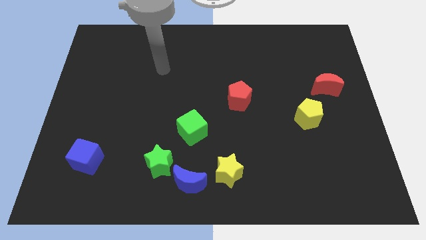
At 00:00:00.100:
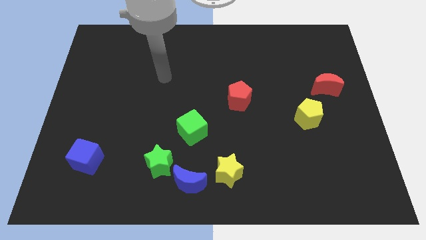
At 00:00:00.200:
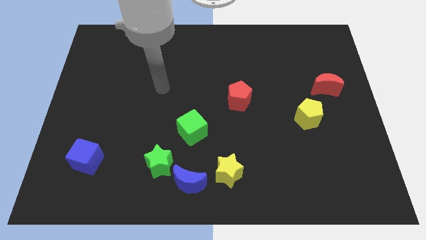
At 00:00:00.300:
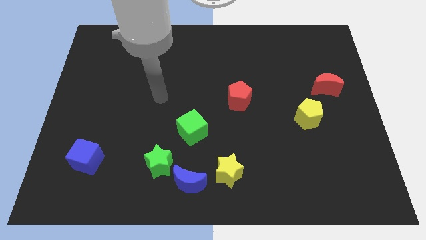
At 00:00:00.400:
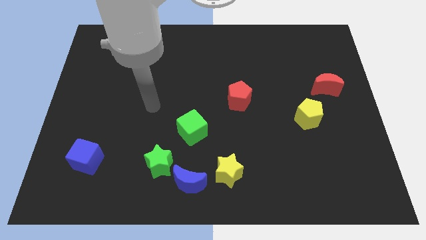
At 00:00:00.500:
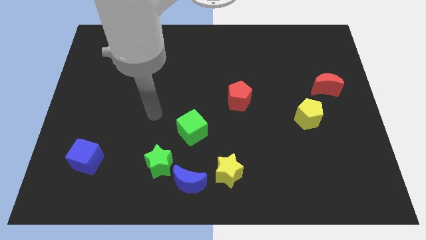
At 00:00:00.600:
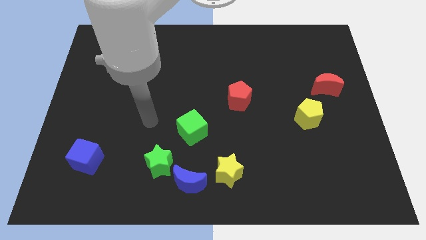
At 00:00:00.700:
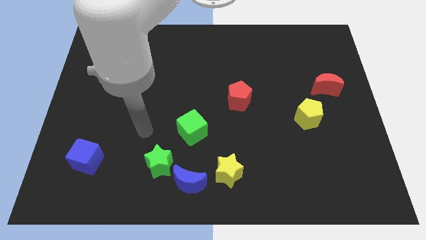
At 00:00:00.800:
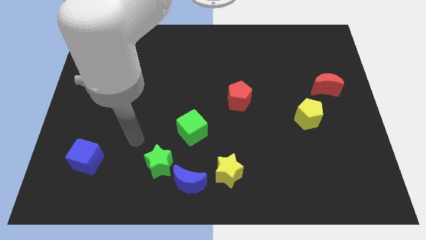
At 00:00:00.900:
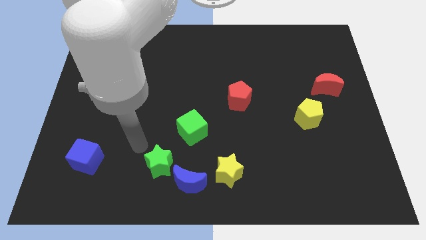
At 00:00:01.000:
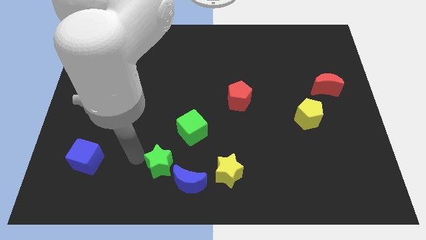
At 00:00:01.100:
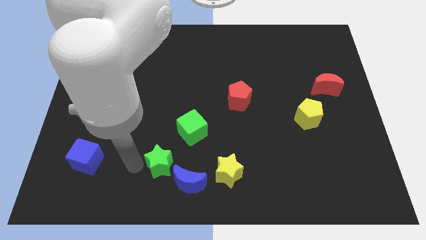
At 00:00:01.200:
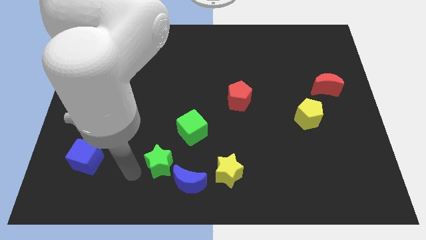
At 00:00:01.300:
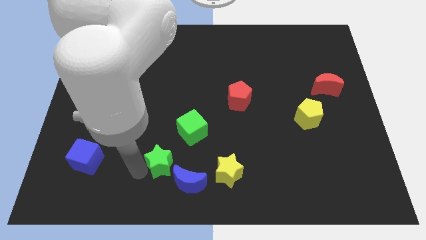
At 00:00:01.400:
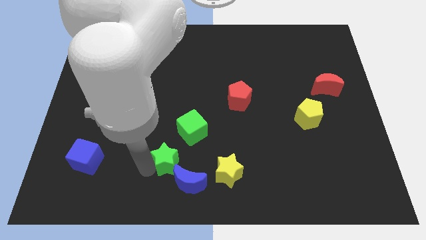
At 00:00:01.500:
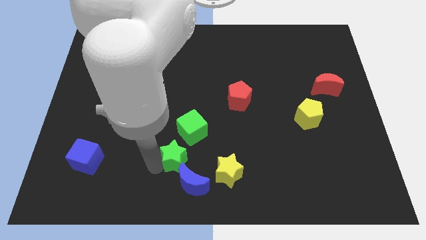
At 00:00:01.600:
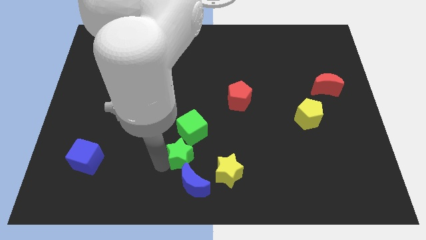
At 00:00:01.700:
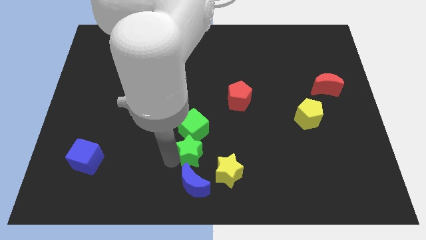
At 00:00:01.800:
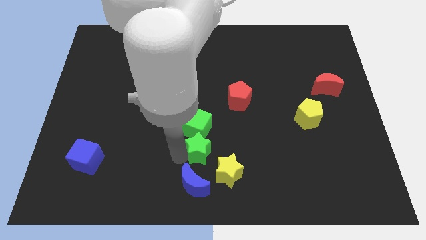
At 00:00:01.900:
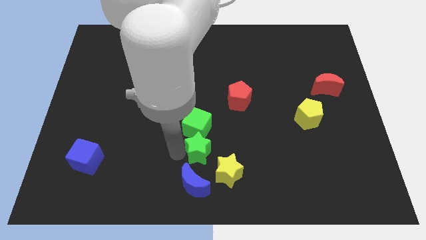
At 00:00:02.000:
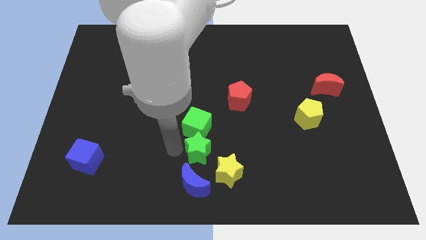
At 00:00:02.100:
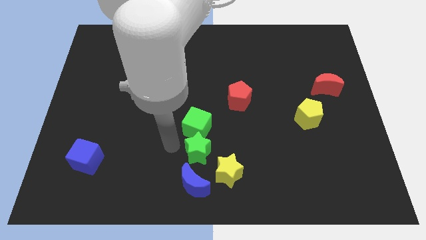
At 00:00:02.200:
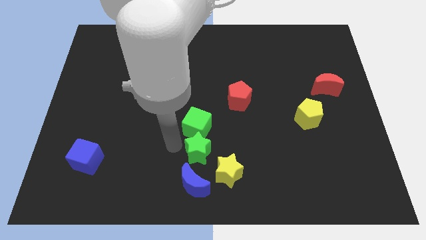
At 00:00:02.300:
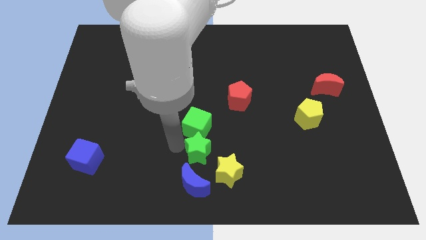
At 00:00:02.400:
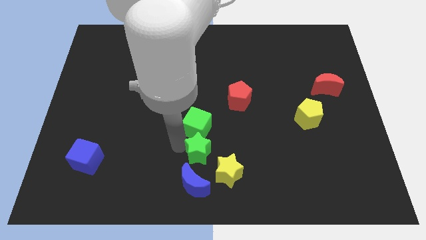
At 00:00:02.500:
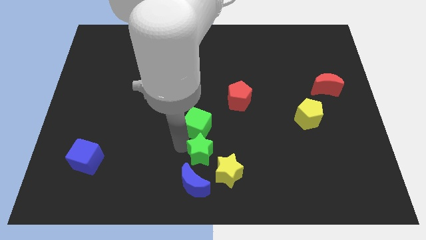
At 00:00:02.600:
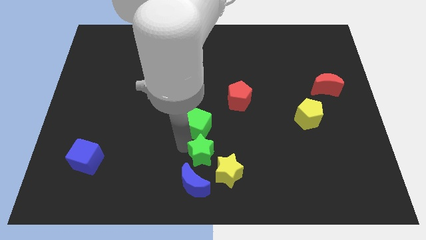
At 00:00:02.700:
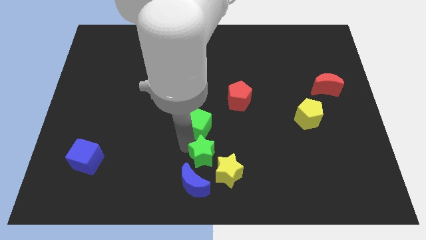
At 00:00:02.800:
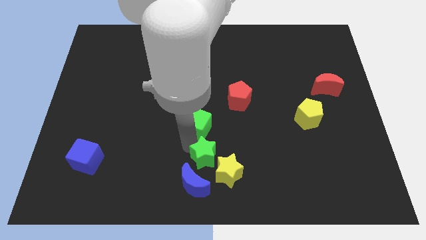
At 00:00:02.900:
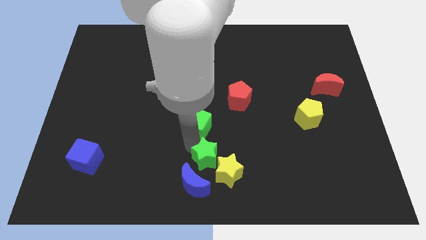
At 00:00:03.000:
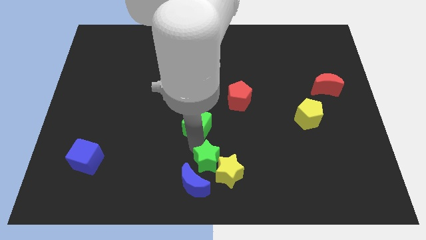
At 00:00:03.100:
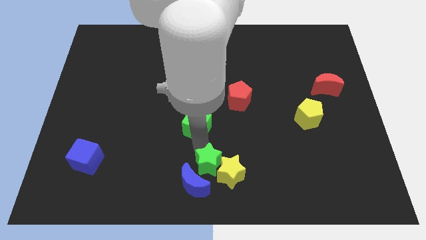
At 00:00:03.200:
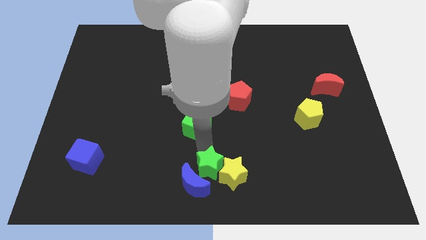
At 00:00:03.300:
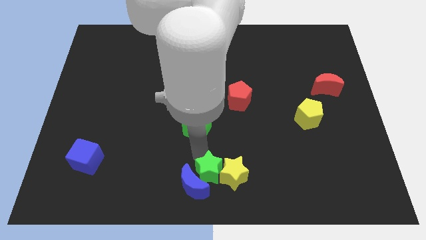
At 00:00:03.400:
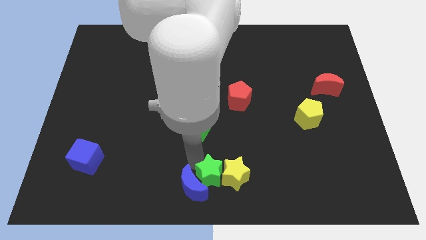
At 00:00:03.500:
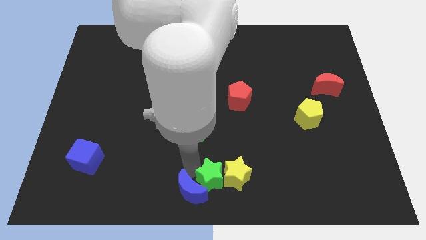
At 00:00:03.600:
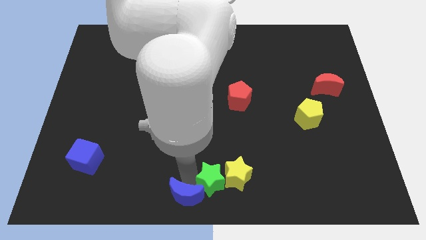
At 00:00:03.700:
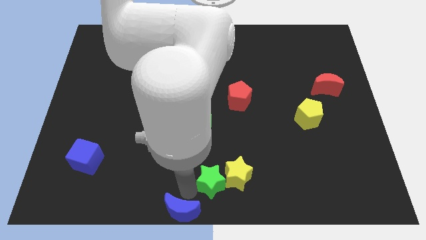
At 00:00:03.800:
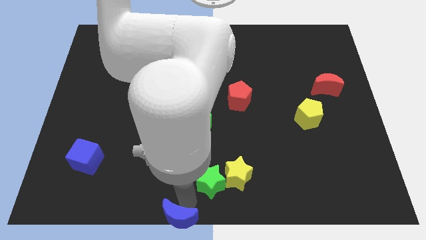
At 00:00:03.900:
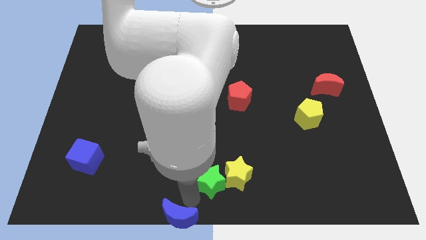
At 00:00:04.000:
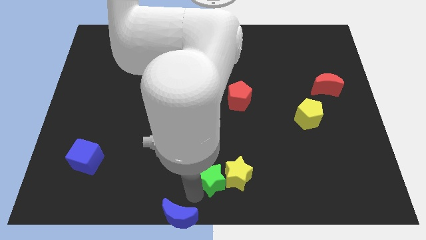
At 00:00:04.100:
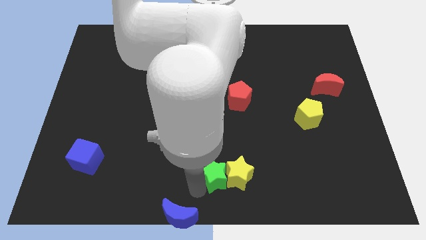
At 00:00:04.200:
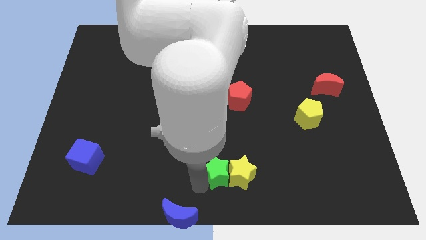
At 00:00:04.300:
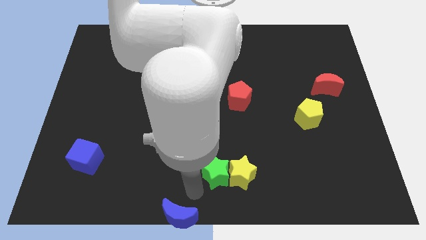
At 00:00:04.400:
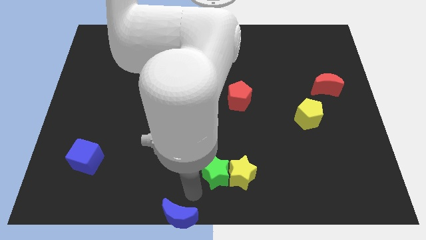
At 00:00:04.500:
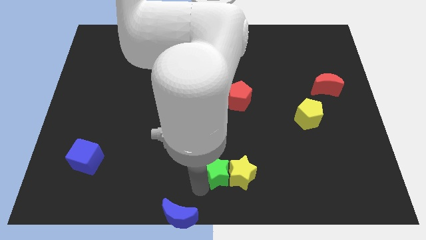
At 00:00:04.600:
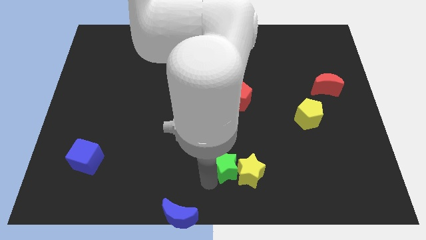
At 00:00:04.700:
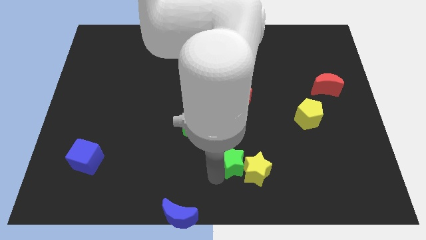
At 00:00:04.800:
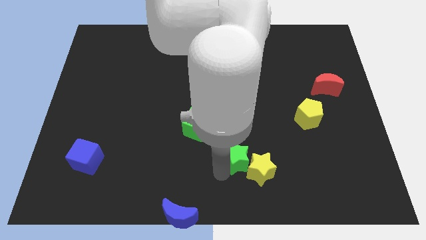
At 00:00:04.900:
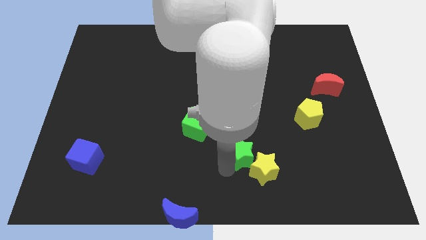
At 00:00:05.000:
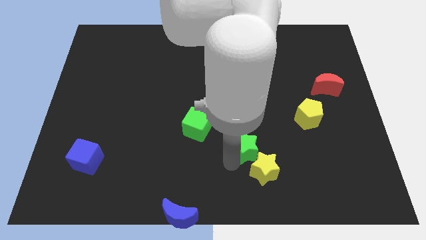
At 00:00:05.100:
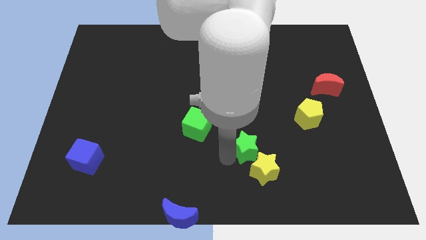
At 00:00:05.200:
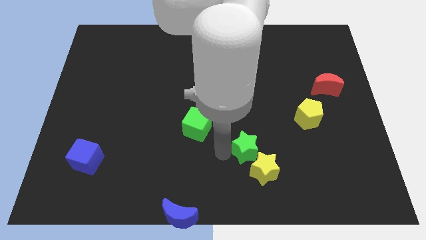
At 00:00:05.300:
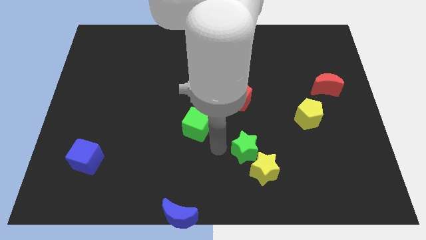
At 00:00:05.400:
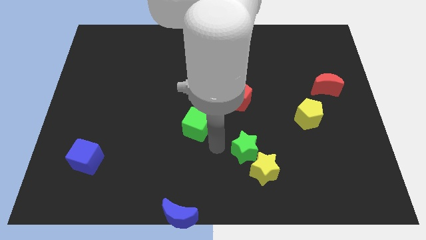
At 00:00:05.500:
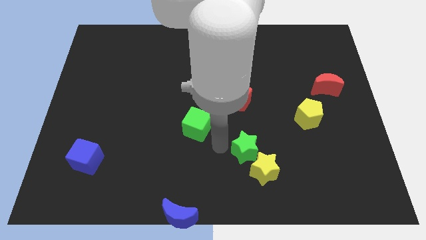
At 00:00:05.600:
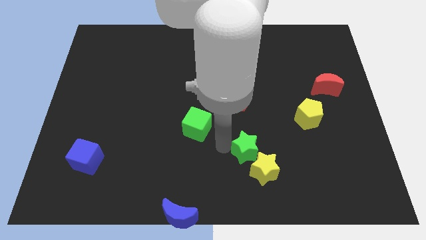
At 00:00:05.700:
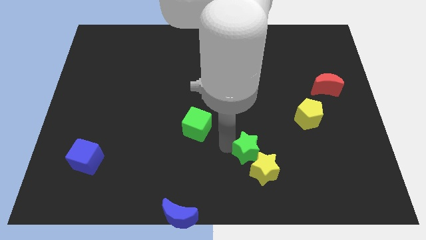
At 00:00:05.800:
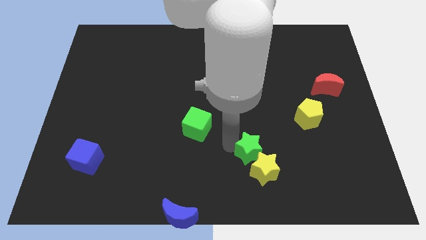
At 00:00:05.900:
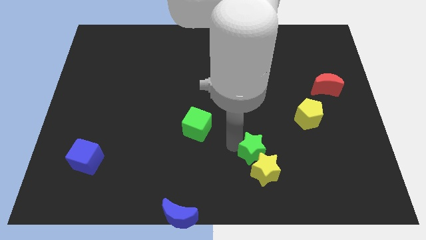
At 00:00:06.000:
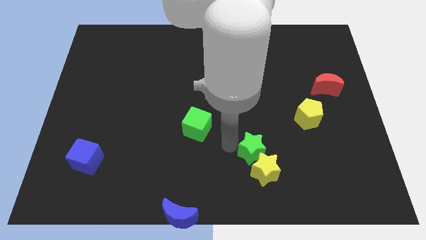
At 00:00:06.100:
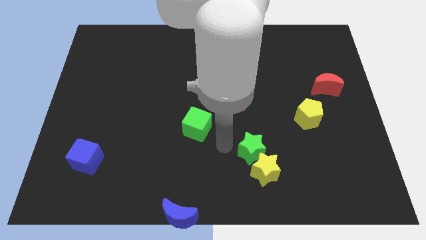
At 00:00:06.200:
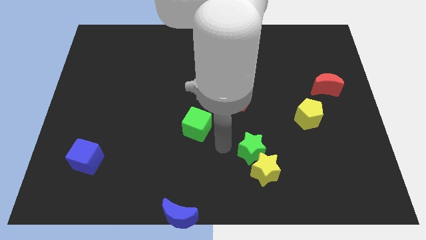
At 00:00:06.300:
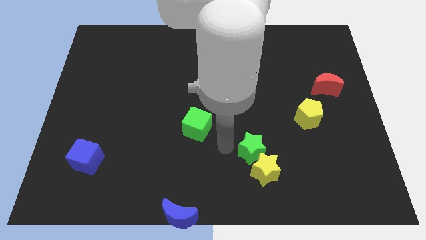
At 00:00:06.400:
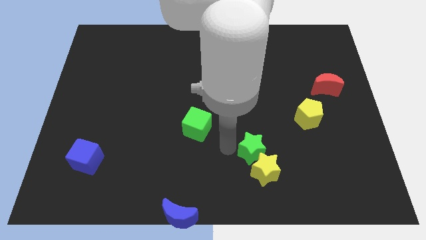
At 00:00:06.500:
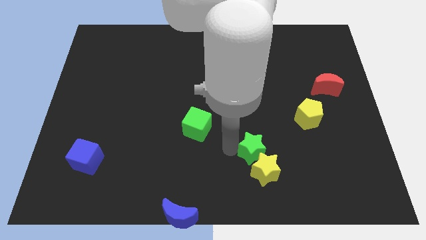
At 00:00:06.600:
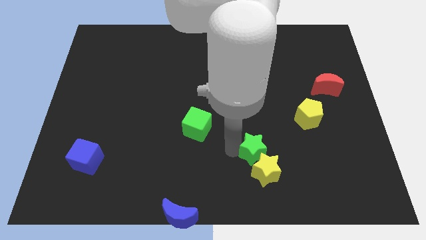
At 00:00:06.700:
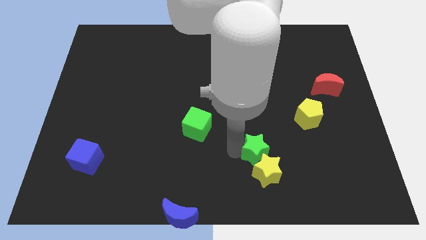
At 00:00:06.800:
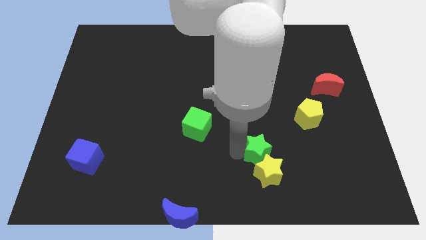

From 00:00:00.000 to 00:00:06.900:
slide the green star to the right

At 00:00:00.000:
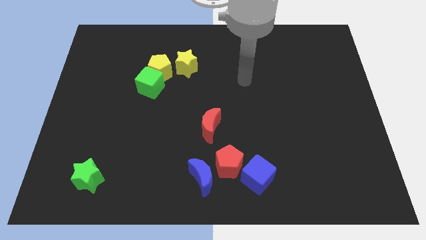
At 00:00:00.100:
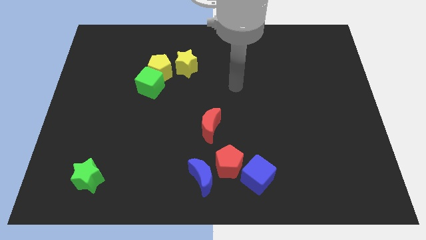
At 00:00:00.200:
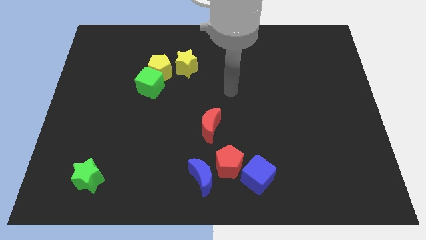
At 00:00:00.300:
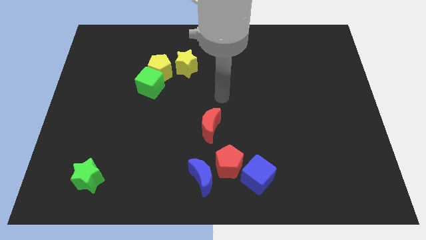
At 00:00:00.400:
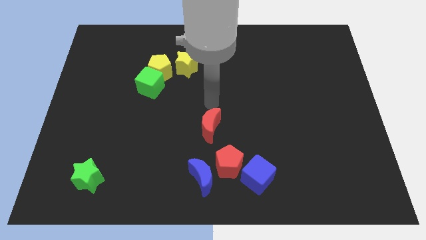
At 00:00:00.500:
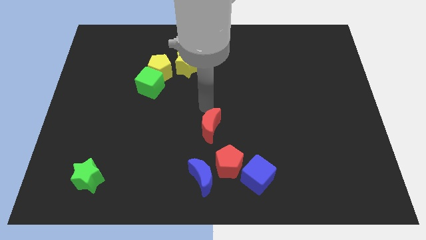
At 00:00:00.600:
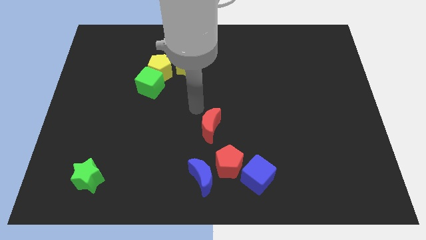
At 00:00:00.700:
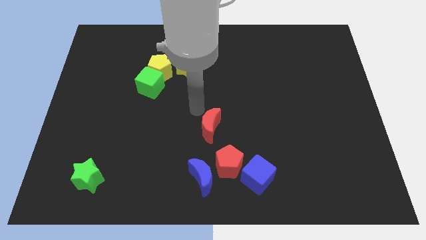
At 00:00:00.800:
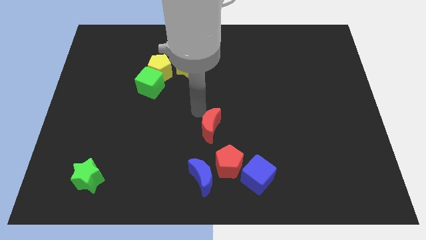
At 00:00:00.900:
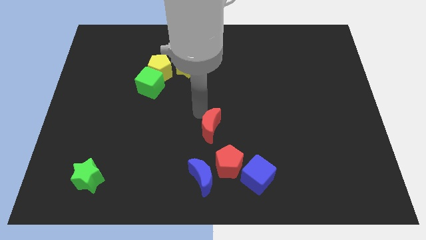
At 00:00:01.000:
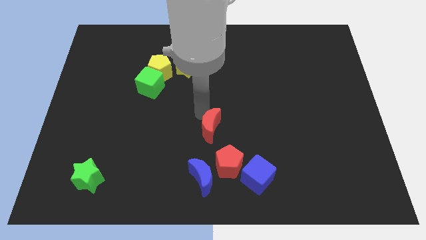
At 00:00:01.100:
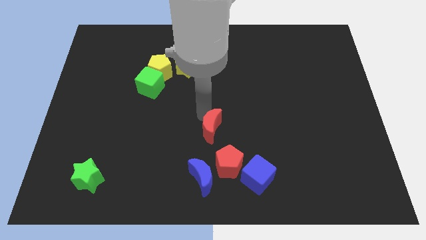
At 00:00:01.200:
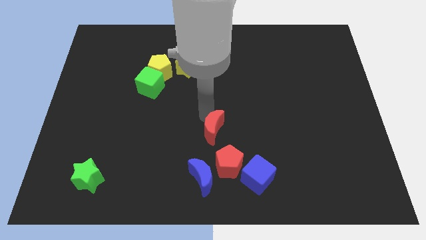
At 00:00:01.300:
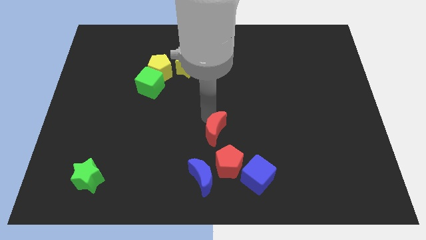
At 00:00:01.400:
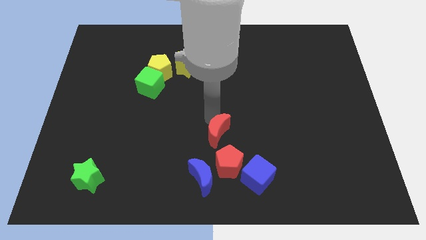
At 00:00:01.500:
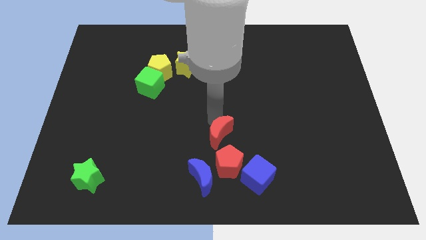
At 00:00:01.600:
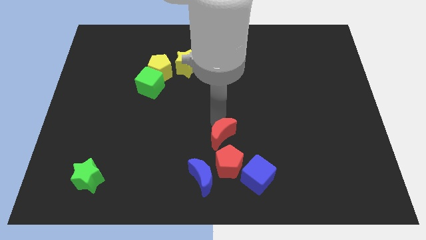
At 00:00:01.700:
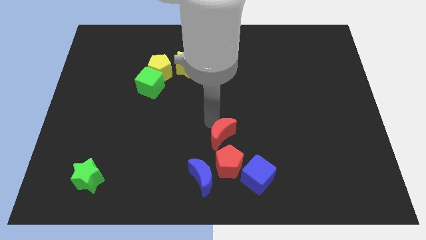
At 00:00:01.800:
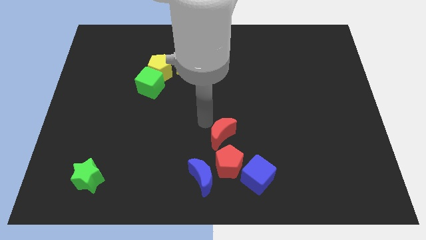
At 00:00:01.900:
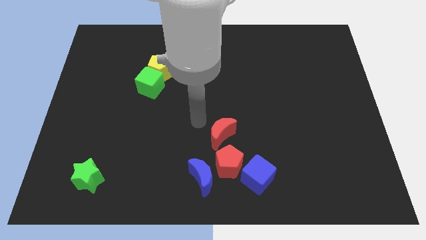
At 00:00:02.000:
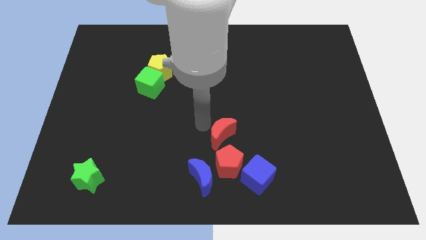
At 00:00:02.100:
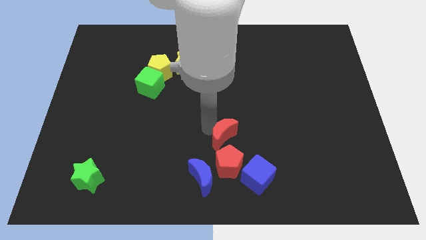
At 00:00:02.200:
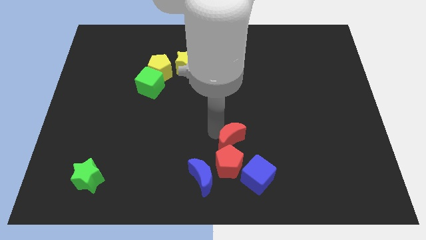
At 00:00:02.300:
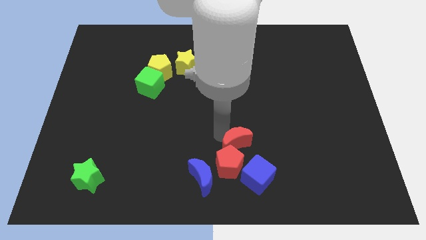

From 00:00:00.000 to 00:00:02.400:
slide the red moon a little bit down and right diagonally
